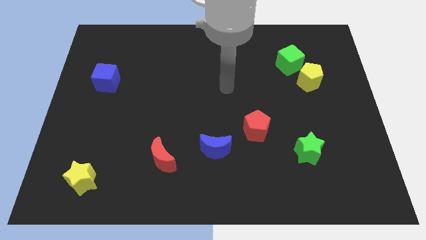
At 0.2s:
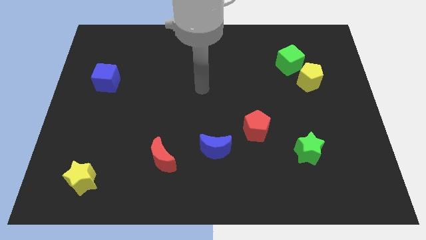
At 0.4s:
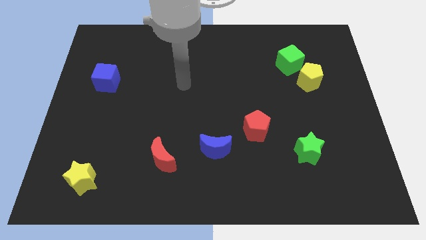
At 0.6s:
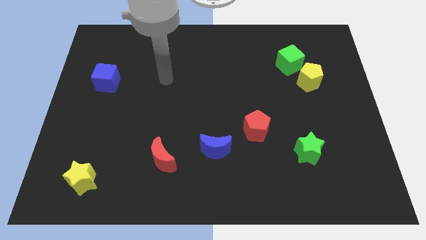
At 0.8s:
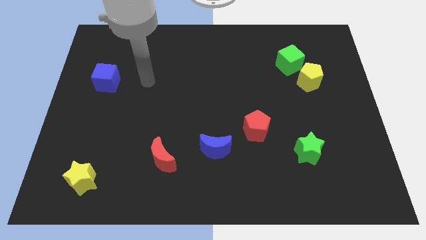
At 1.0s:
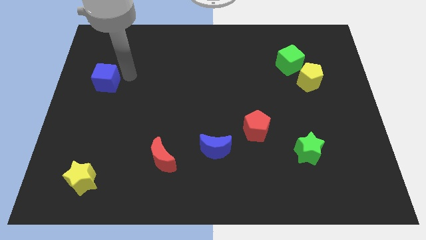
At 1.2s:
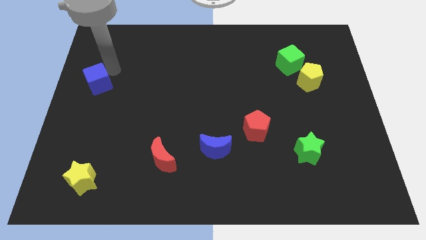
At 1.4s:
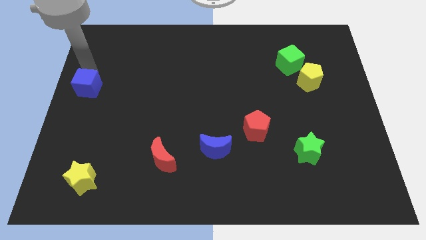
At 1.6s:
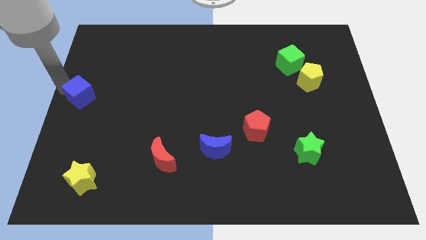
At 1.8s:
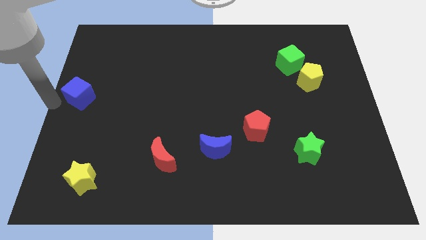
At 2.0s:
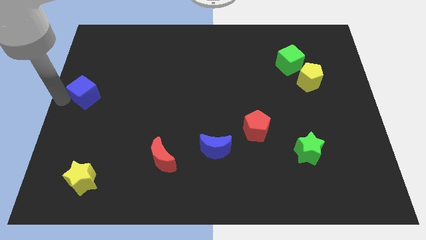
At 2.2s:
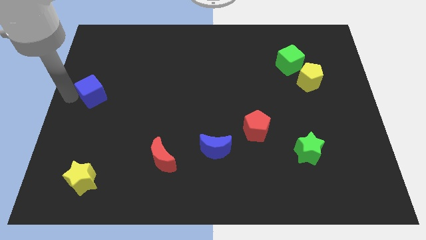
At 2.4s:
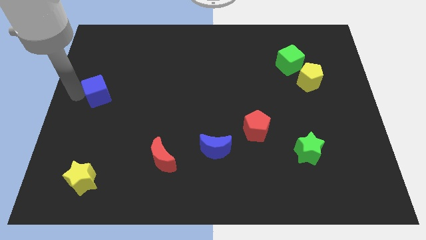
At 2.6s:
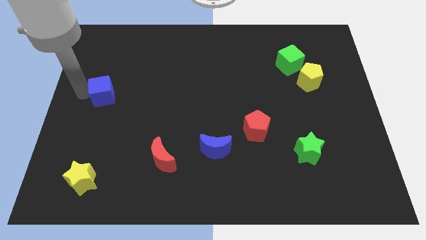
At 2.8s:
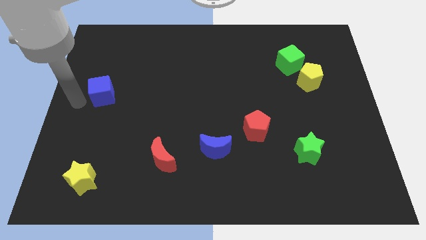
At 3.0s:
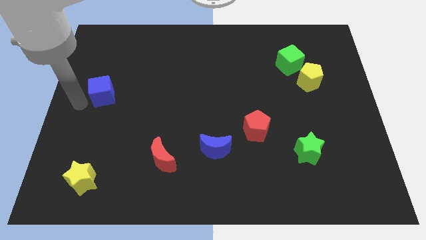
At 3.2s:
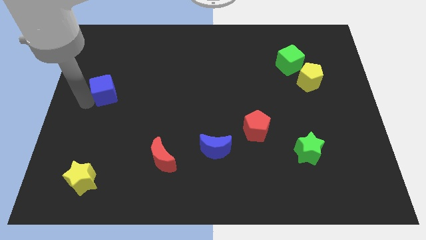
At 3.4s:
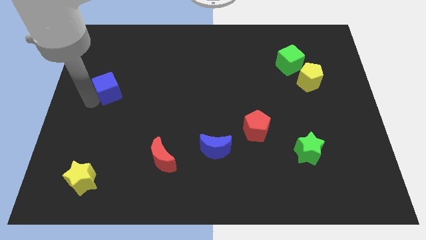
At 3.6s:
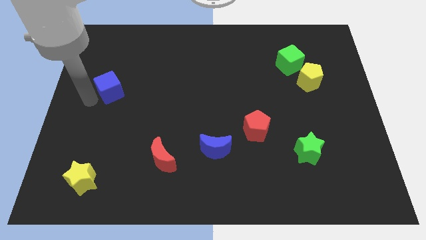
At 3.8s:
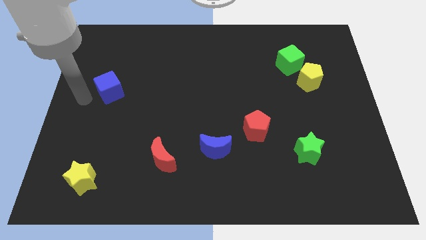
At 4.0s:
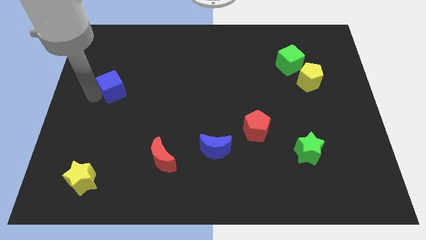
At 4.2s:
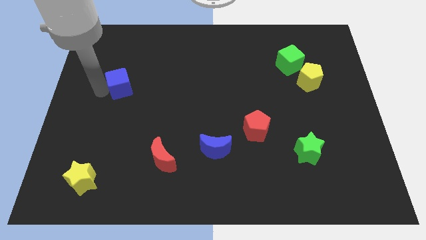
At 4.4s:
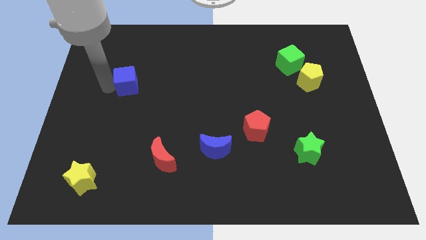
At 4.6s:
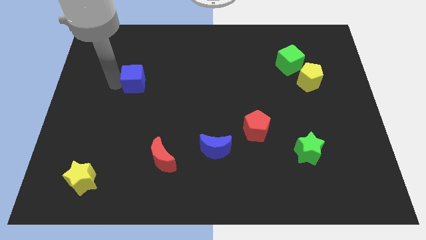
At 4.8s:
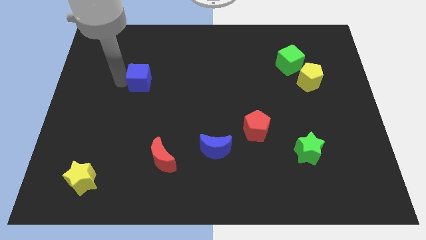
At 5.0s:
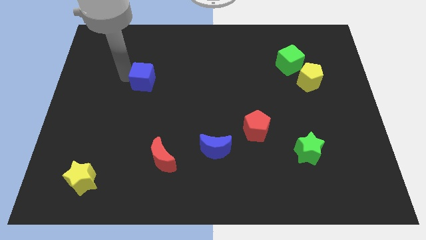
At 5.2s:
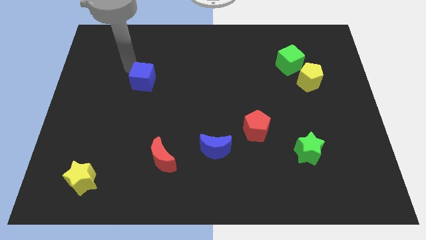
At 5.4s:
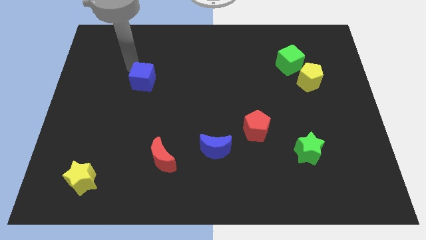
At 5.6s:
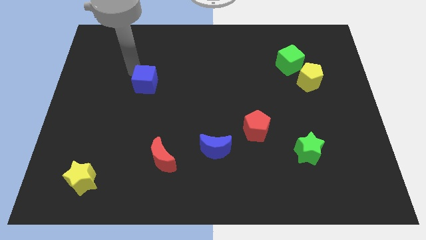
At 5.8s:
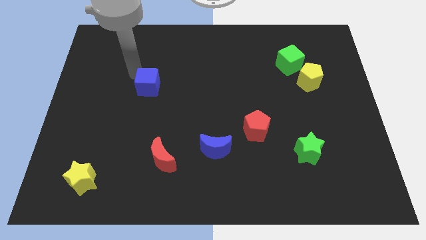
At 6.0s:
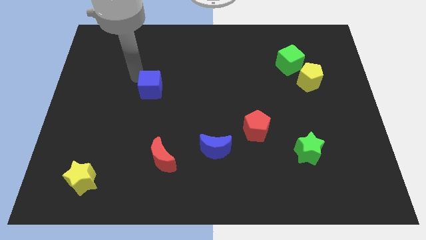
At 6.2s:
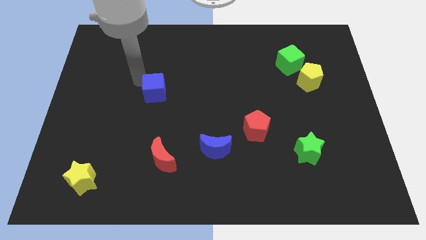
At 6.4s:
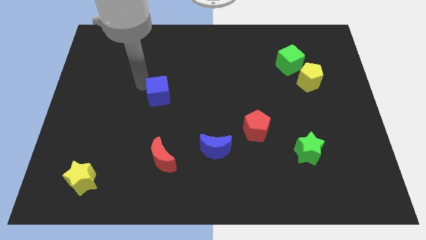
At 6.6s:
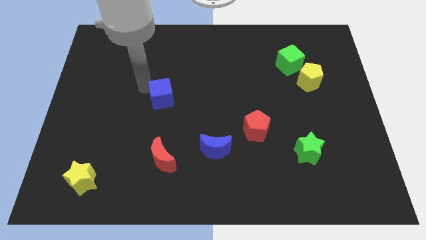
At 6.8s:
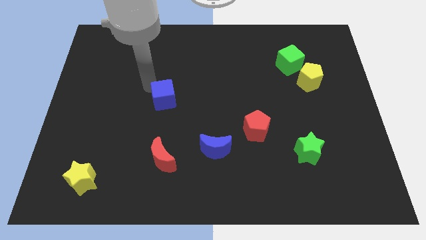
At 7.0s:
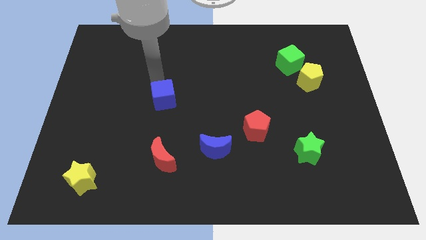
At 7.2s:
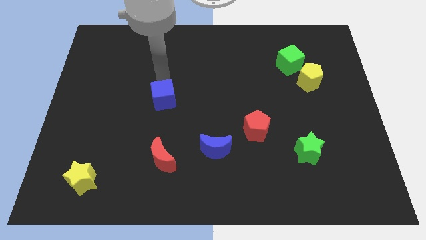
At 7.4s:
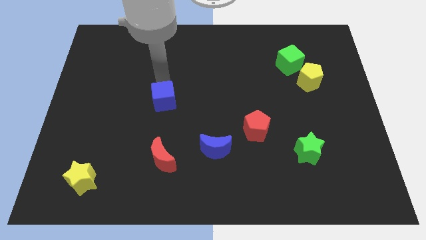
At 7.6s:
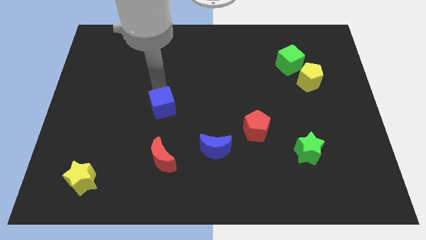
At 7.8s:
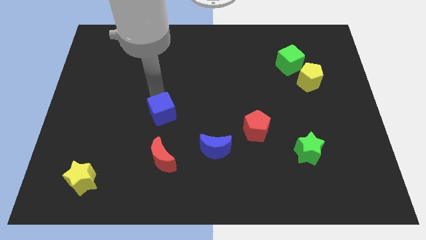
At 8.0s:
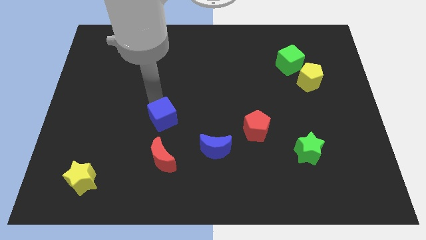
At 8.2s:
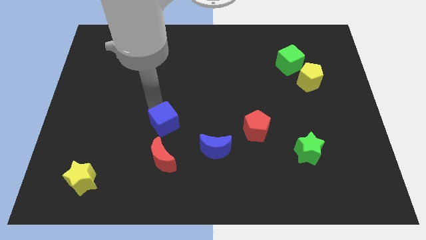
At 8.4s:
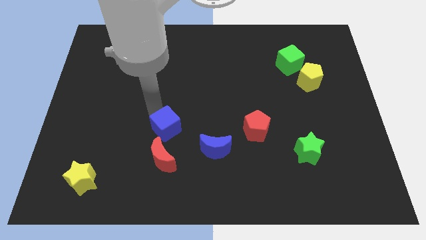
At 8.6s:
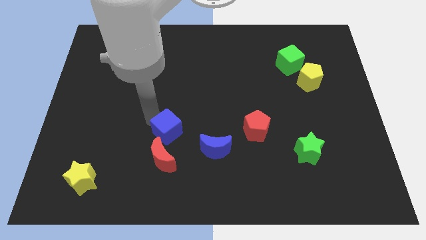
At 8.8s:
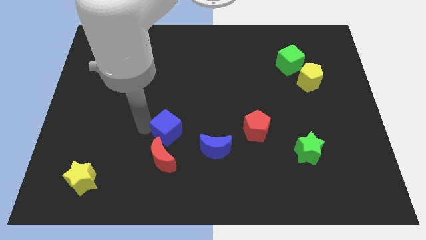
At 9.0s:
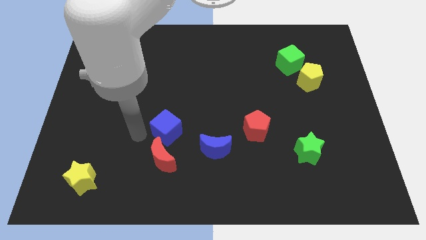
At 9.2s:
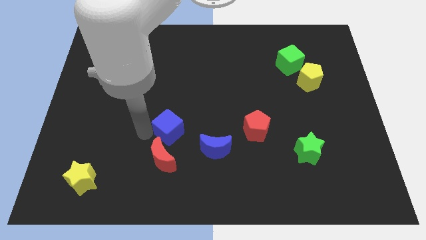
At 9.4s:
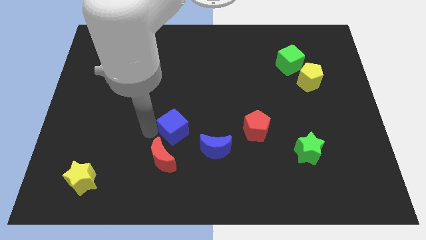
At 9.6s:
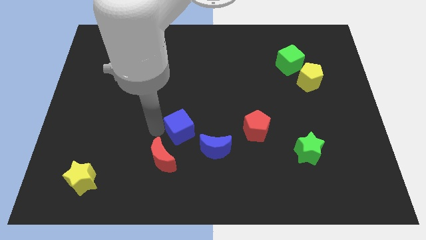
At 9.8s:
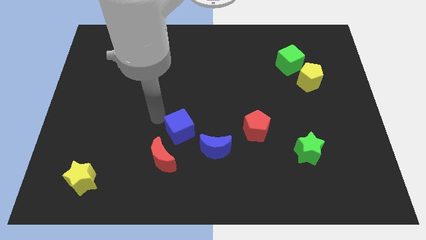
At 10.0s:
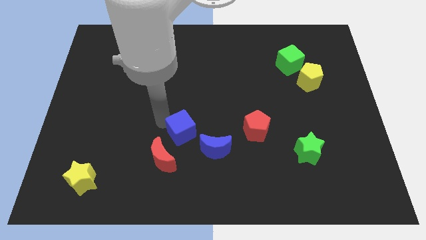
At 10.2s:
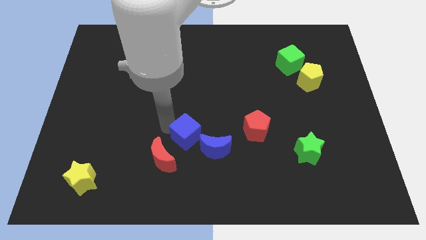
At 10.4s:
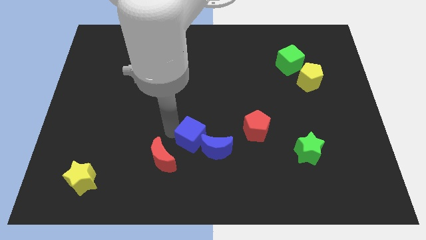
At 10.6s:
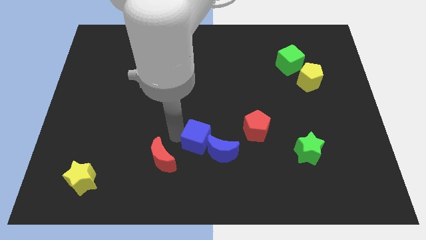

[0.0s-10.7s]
push the blue cube next to the blue moon

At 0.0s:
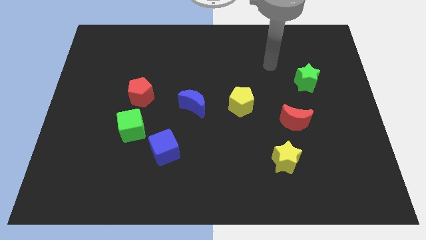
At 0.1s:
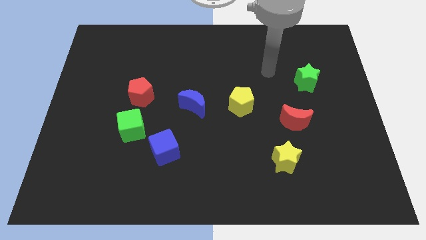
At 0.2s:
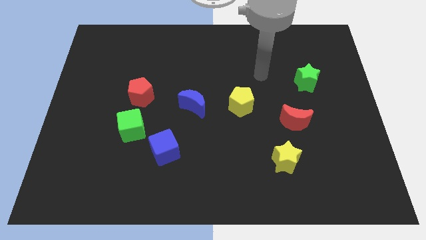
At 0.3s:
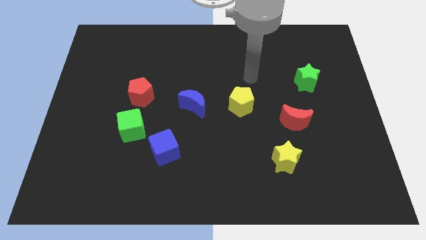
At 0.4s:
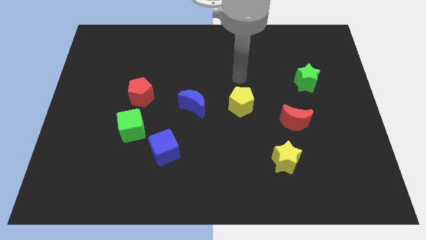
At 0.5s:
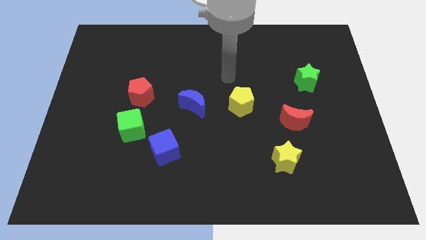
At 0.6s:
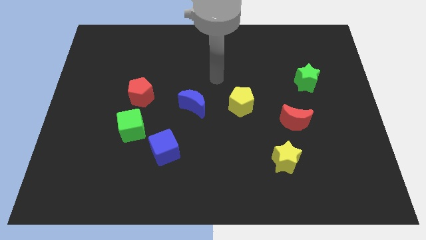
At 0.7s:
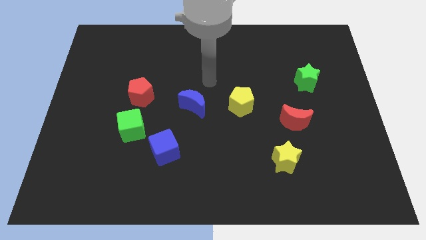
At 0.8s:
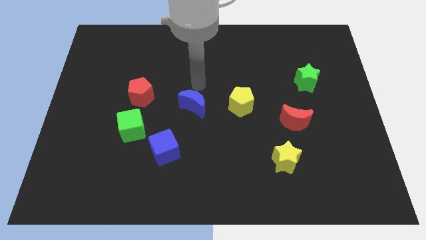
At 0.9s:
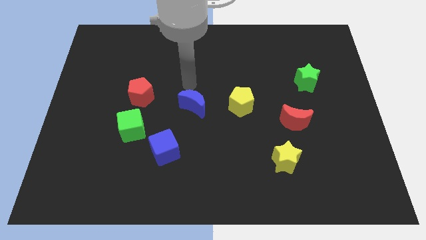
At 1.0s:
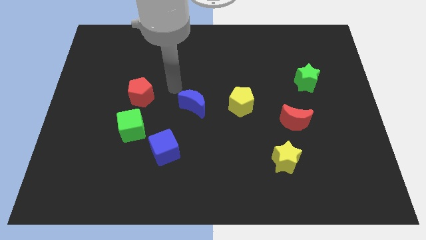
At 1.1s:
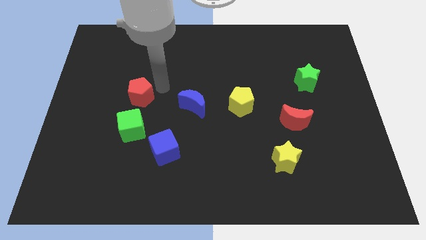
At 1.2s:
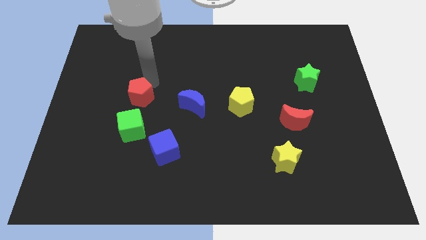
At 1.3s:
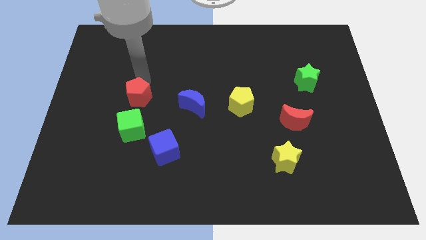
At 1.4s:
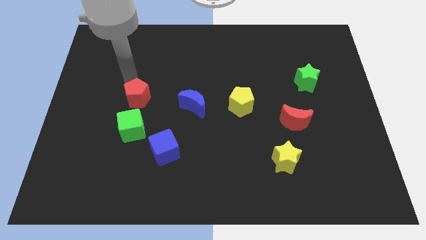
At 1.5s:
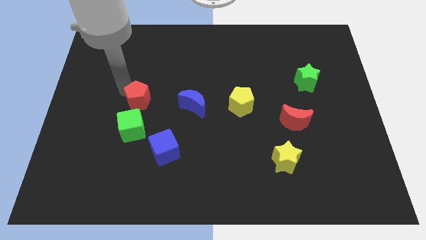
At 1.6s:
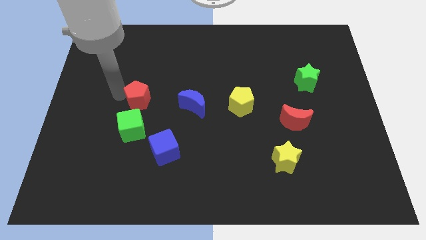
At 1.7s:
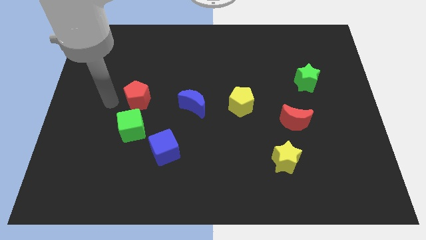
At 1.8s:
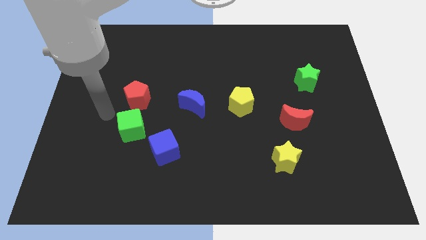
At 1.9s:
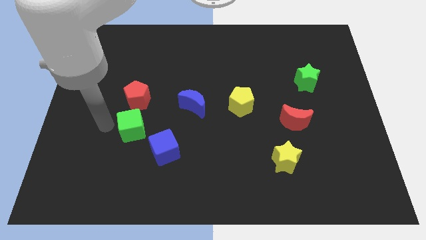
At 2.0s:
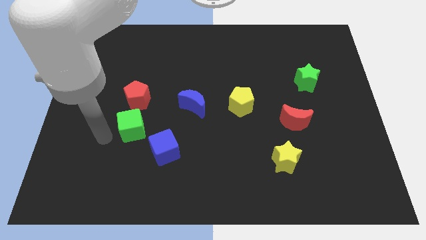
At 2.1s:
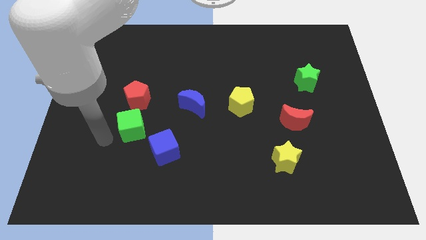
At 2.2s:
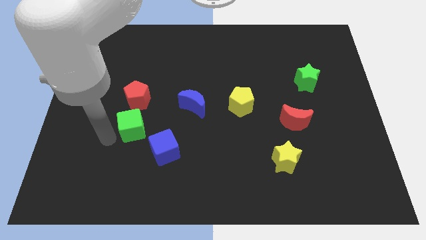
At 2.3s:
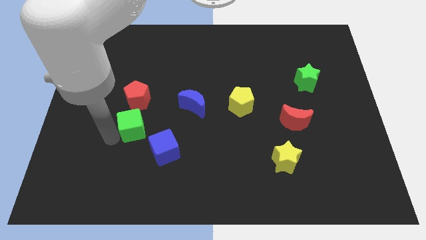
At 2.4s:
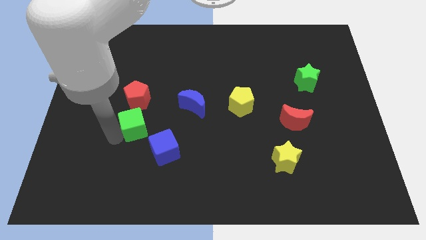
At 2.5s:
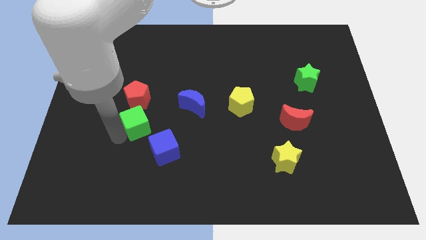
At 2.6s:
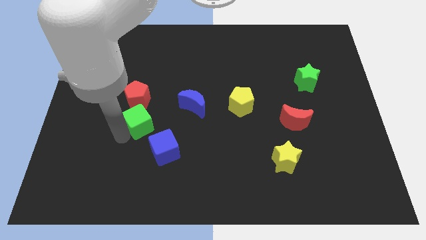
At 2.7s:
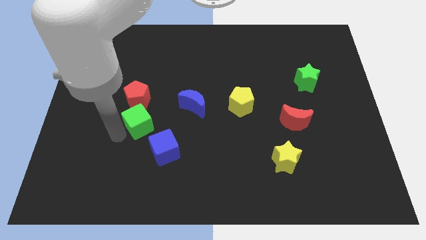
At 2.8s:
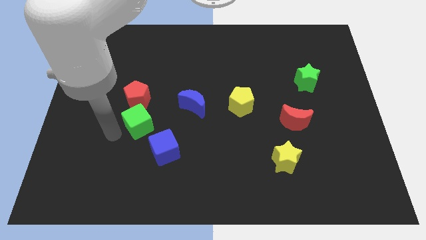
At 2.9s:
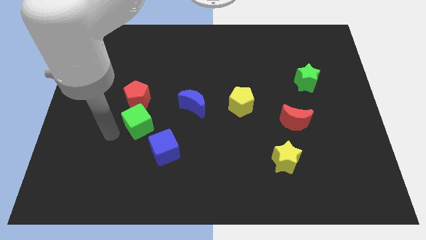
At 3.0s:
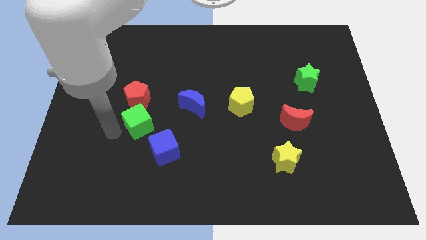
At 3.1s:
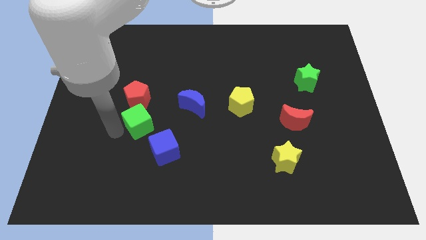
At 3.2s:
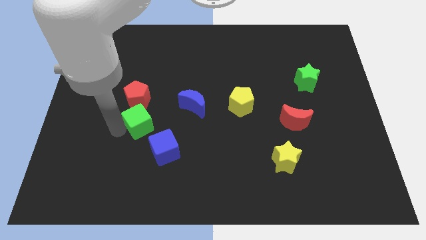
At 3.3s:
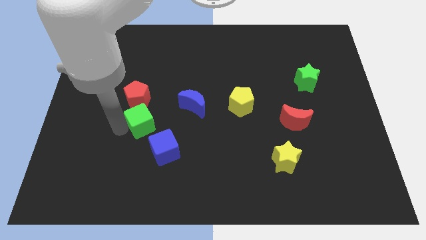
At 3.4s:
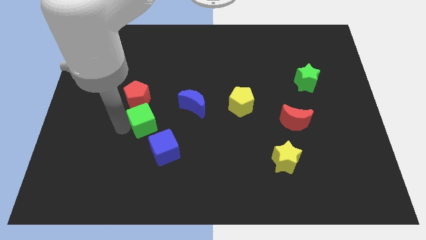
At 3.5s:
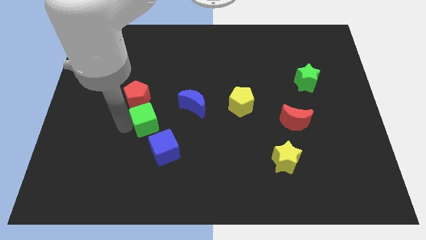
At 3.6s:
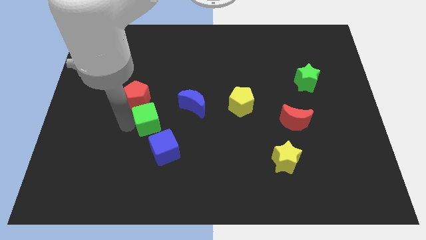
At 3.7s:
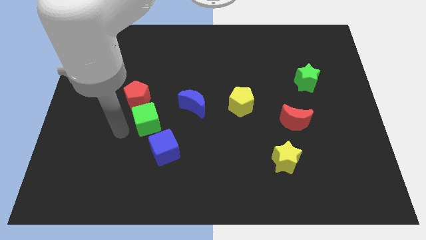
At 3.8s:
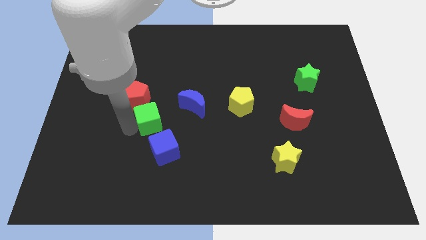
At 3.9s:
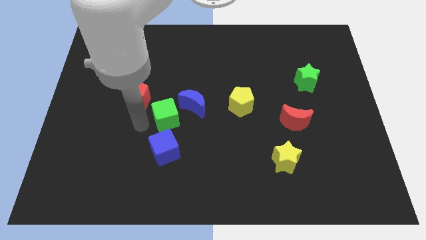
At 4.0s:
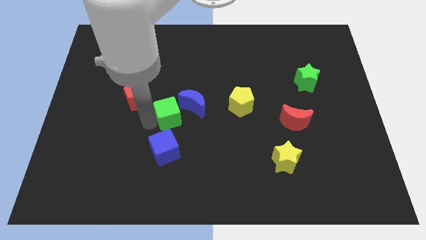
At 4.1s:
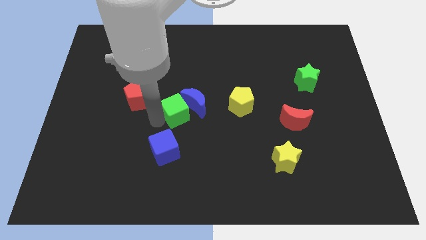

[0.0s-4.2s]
move the green cube next to the blue moon
